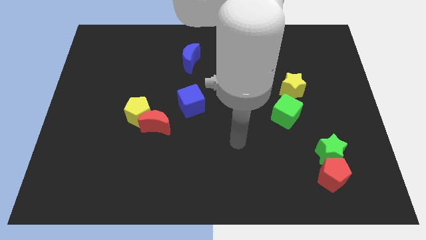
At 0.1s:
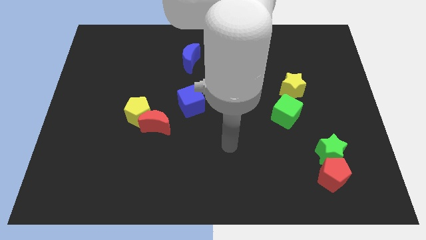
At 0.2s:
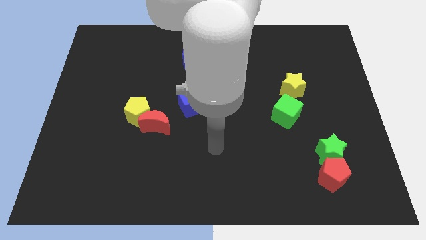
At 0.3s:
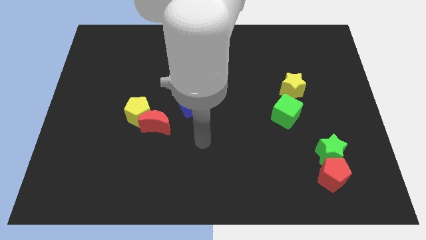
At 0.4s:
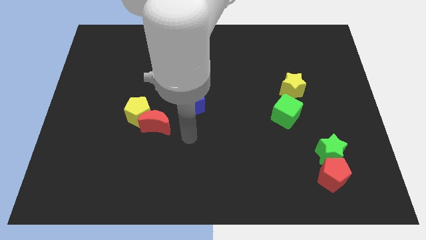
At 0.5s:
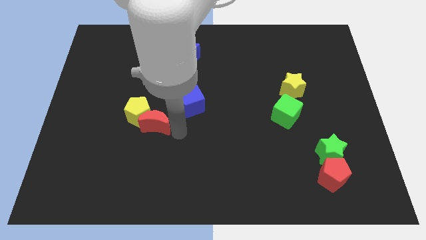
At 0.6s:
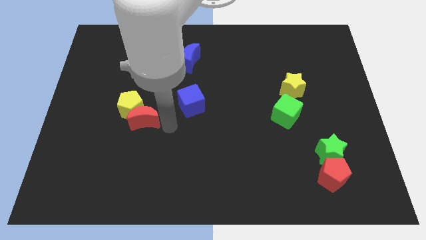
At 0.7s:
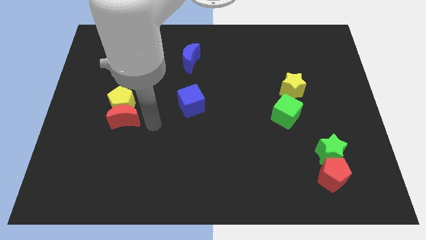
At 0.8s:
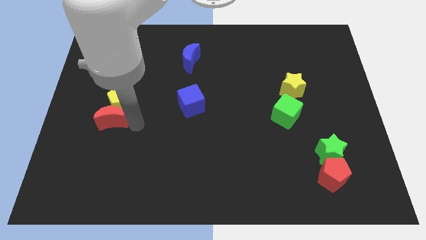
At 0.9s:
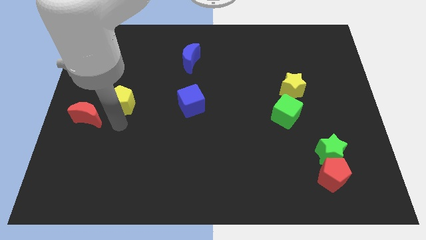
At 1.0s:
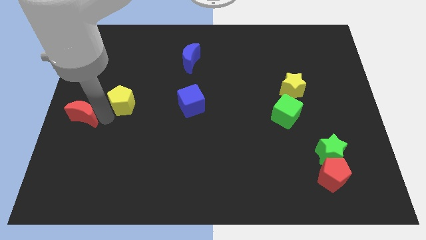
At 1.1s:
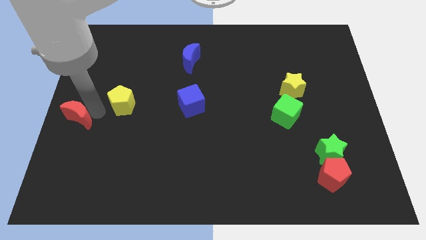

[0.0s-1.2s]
pull the yellow pentagon apart from the red moon

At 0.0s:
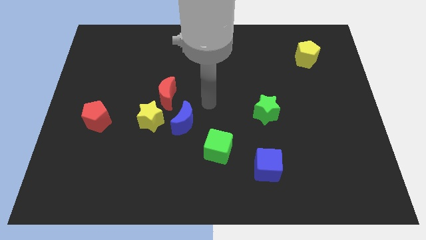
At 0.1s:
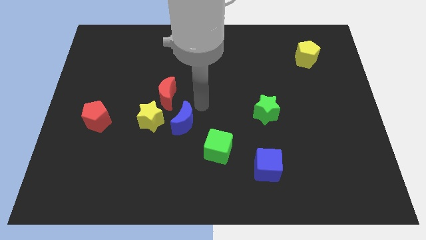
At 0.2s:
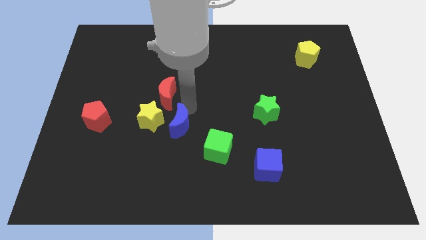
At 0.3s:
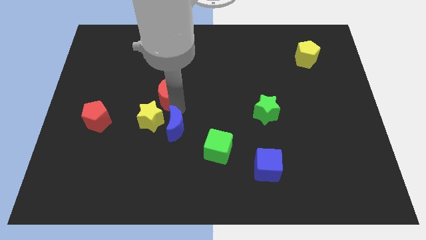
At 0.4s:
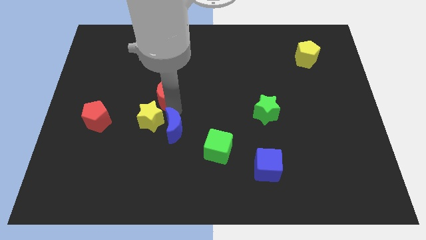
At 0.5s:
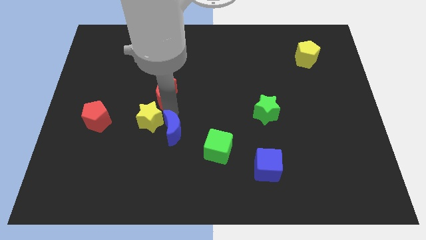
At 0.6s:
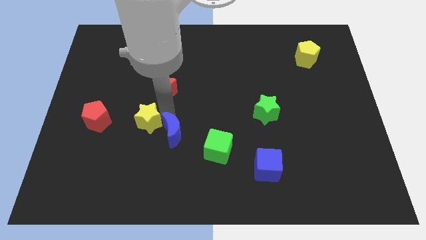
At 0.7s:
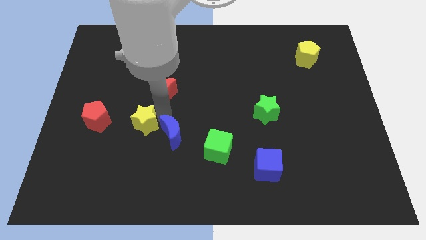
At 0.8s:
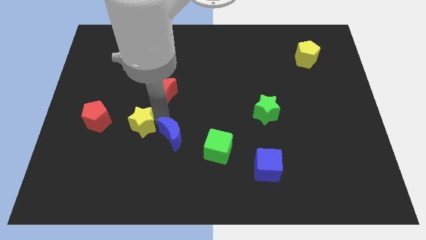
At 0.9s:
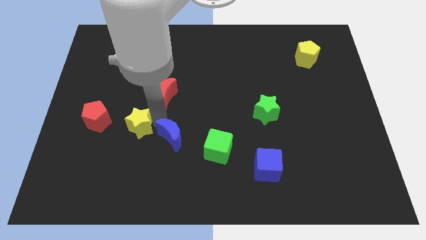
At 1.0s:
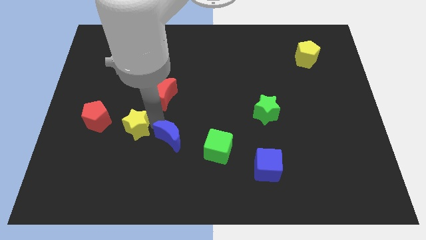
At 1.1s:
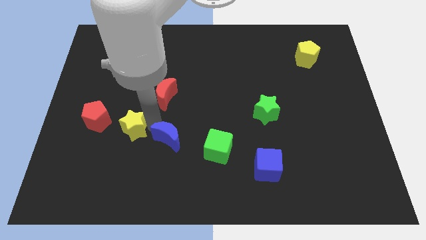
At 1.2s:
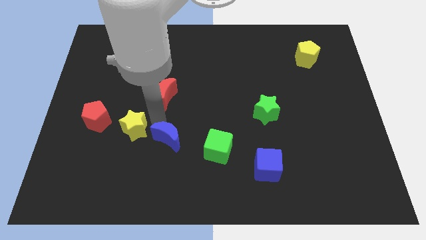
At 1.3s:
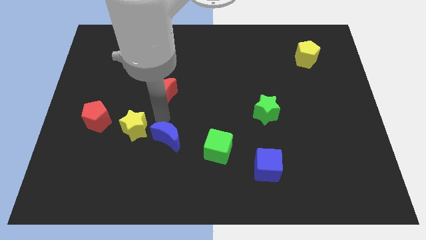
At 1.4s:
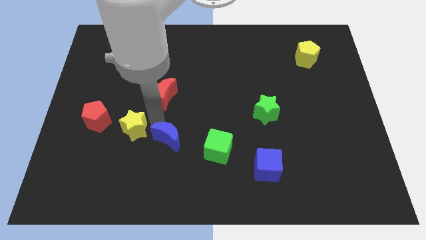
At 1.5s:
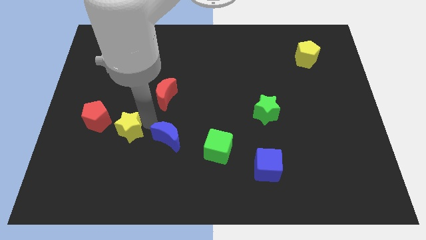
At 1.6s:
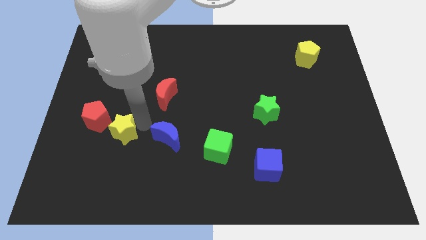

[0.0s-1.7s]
move the yellow star away from the red moon and blue moon

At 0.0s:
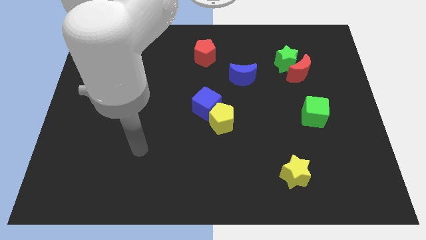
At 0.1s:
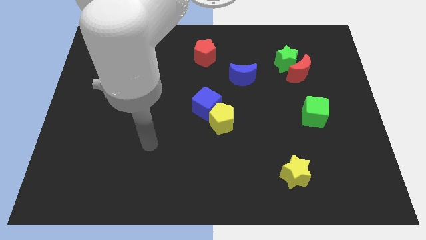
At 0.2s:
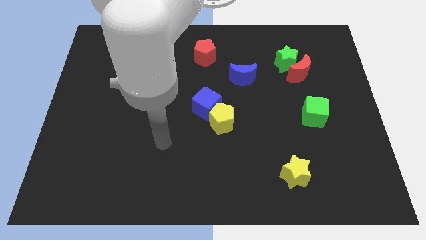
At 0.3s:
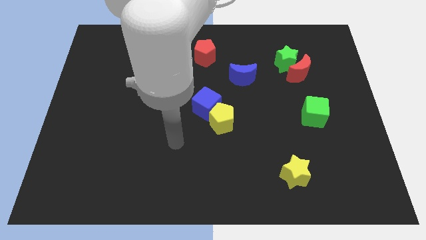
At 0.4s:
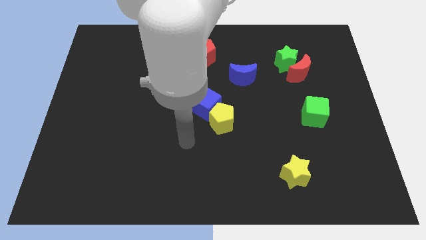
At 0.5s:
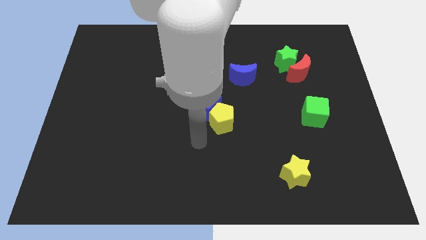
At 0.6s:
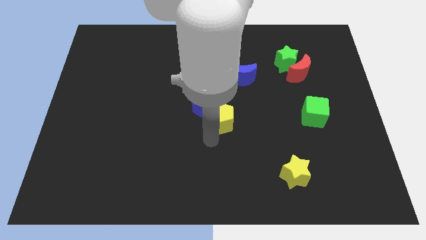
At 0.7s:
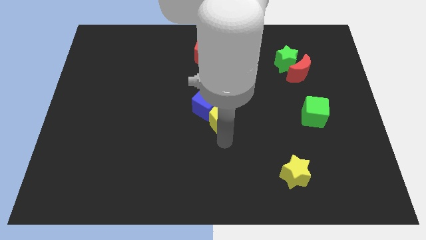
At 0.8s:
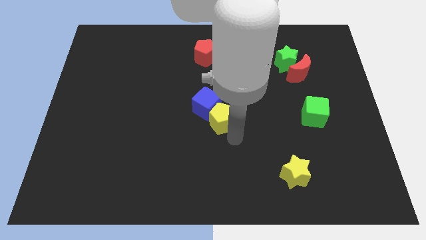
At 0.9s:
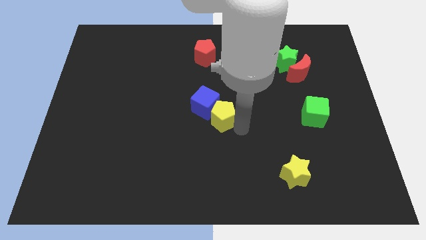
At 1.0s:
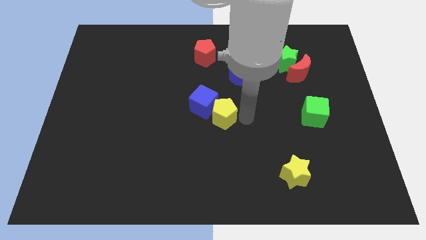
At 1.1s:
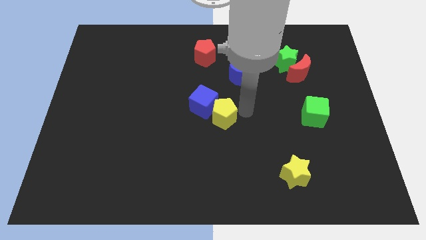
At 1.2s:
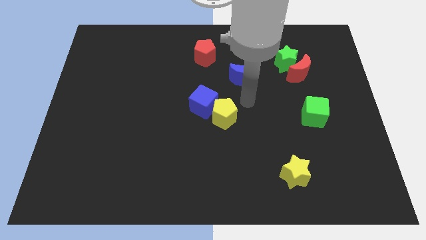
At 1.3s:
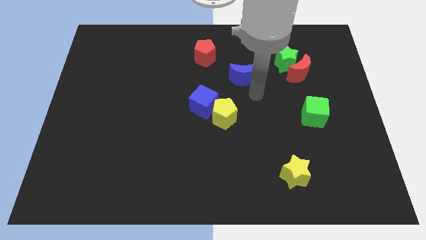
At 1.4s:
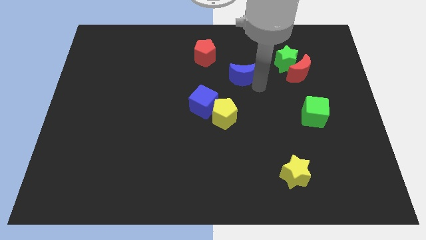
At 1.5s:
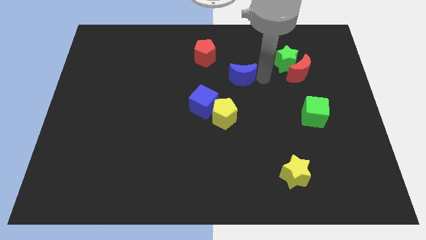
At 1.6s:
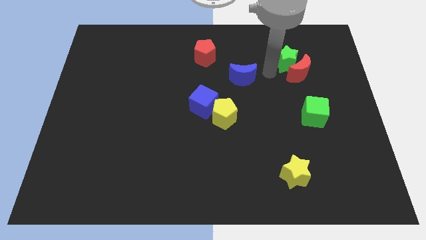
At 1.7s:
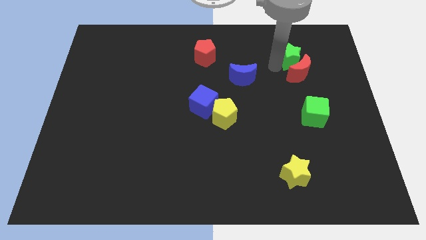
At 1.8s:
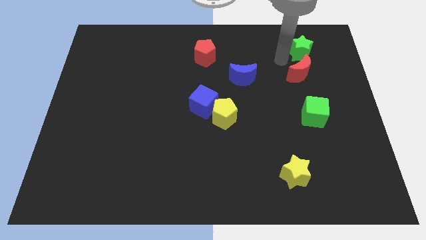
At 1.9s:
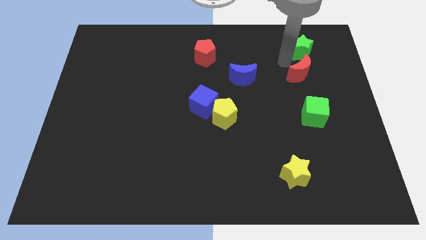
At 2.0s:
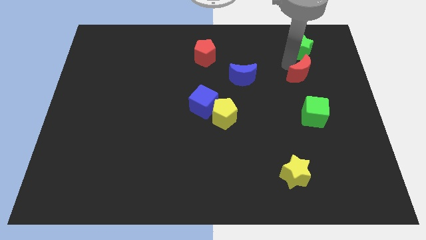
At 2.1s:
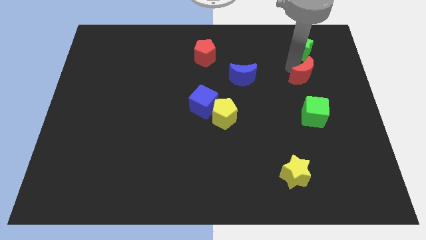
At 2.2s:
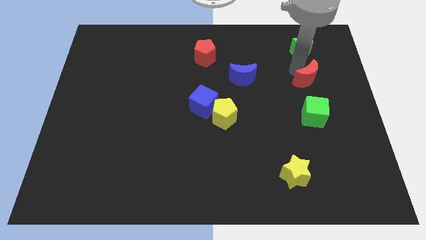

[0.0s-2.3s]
move the red moon away from the green star

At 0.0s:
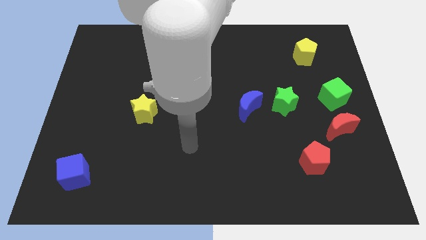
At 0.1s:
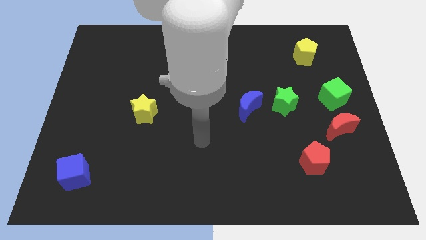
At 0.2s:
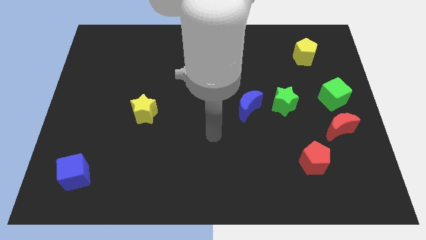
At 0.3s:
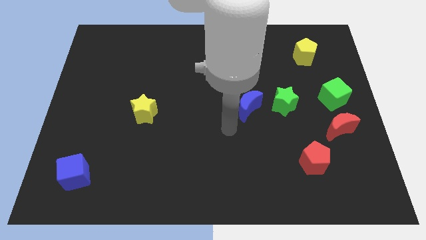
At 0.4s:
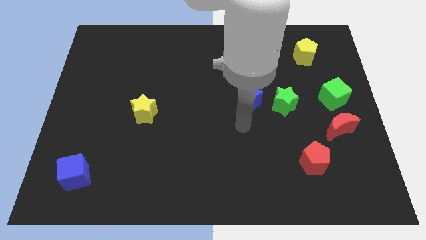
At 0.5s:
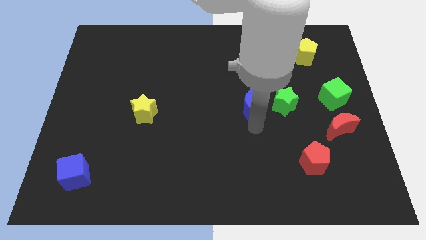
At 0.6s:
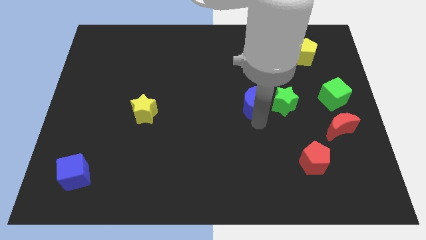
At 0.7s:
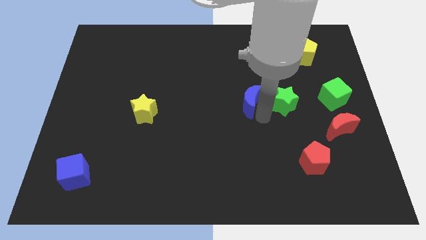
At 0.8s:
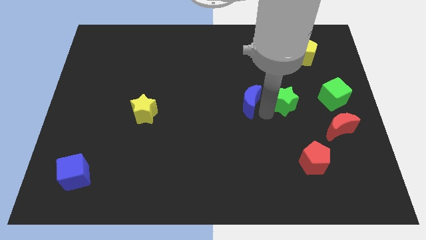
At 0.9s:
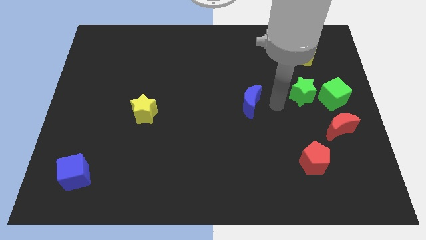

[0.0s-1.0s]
separate the blue moon from the green star

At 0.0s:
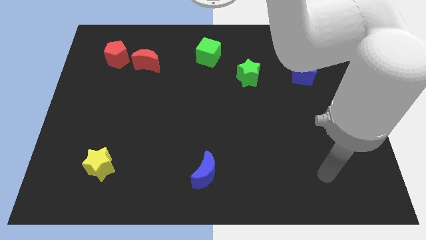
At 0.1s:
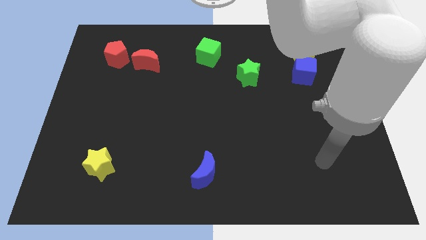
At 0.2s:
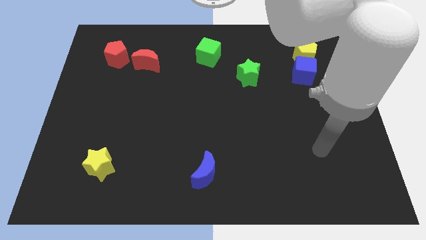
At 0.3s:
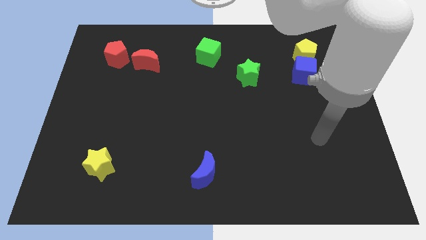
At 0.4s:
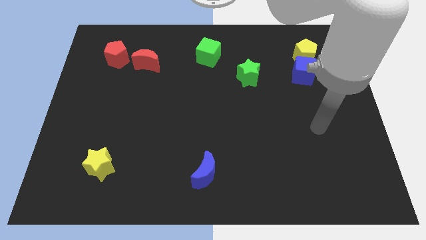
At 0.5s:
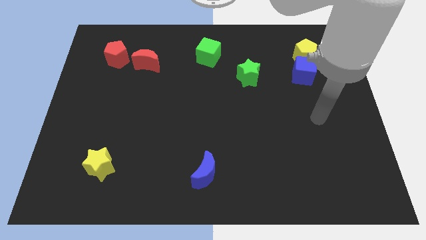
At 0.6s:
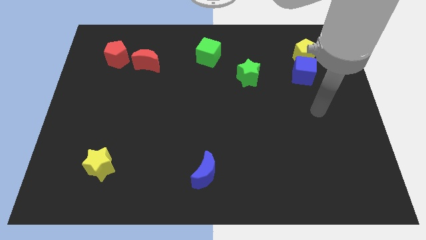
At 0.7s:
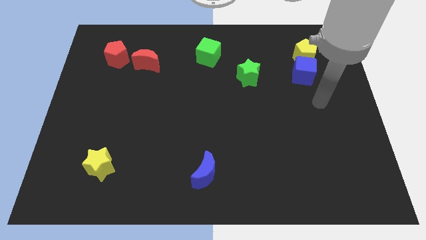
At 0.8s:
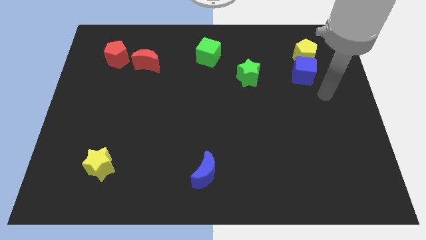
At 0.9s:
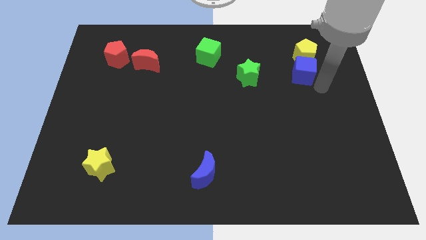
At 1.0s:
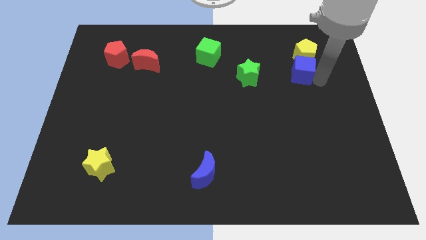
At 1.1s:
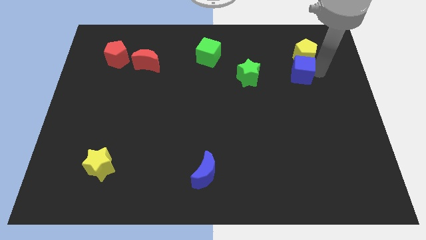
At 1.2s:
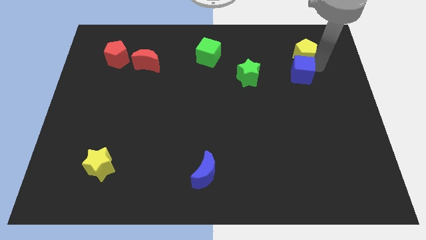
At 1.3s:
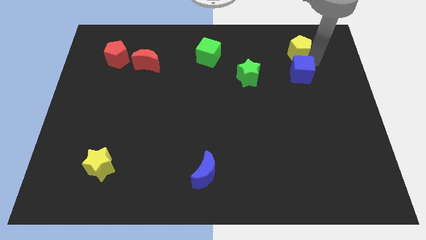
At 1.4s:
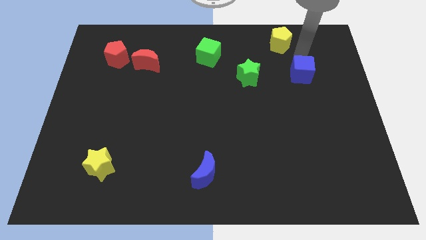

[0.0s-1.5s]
move the blue cube away from the yellow pentagon

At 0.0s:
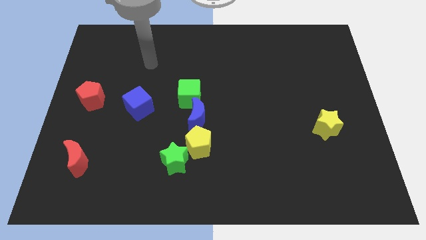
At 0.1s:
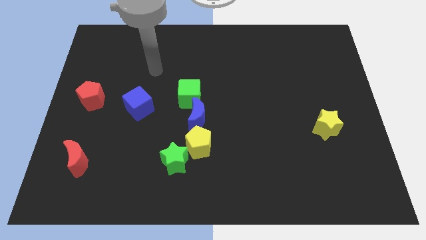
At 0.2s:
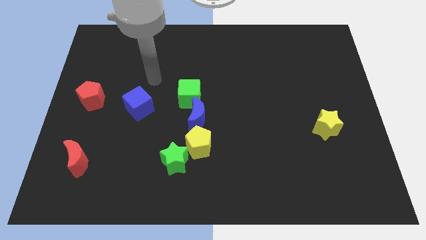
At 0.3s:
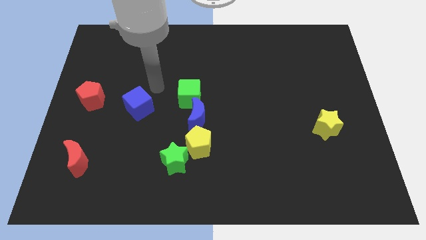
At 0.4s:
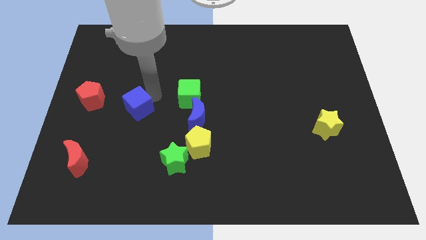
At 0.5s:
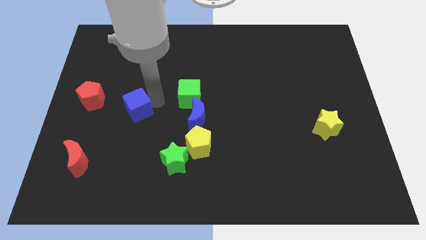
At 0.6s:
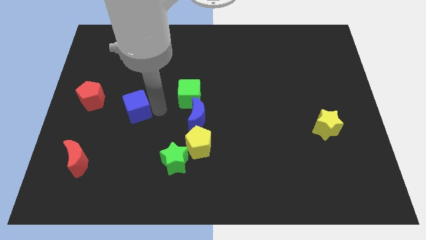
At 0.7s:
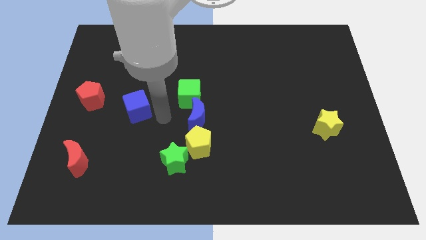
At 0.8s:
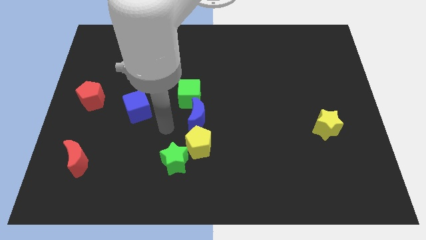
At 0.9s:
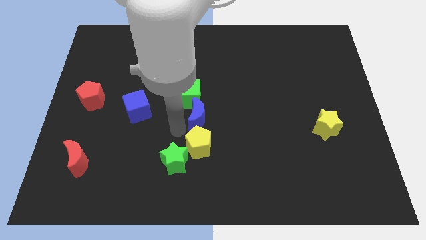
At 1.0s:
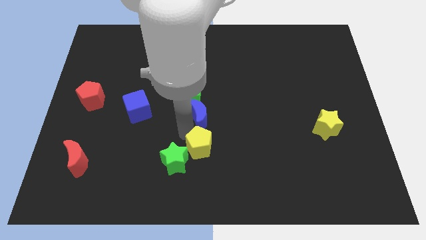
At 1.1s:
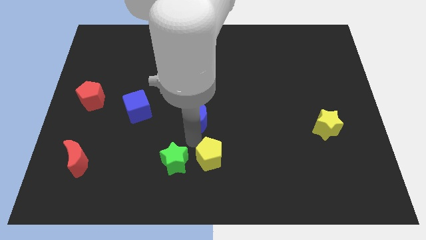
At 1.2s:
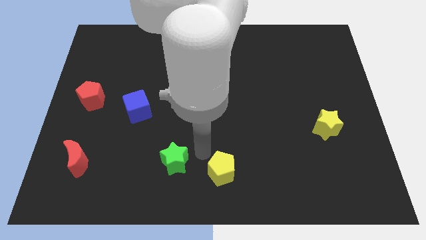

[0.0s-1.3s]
pull the green star apart from the yellow pentagon

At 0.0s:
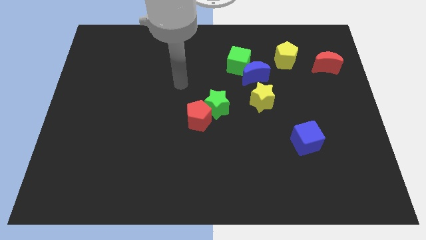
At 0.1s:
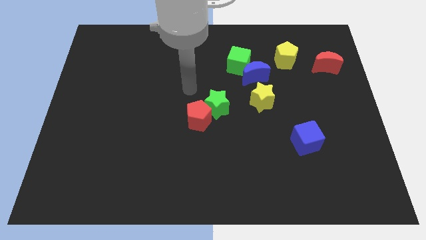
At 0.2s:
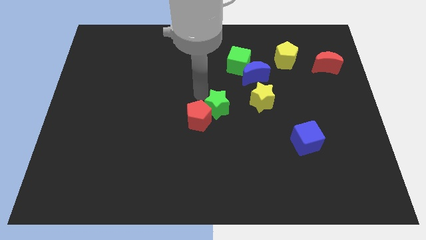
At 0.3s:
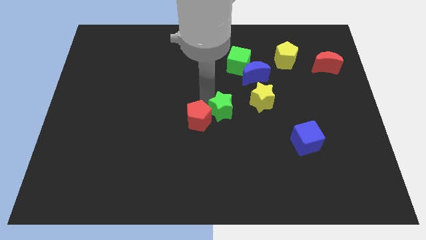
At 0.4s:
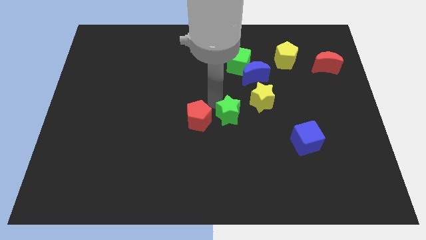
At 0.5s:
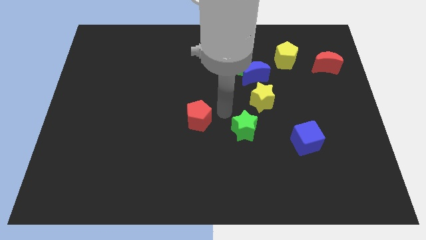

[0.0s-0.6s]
move the red pentagon away from the green star
